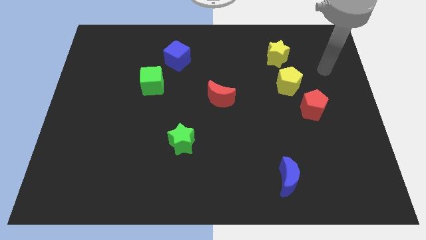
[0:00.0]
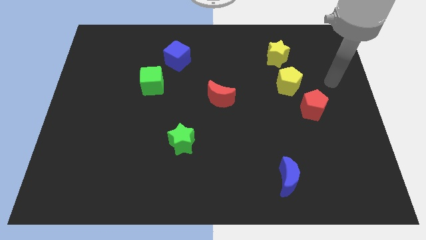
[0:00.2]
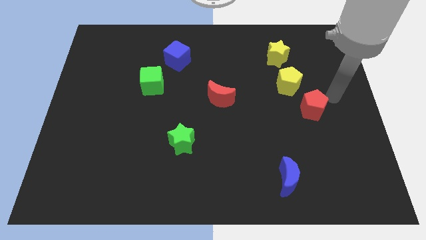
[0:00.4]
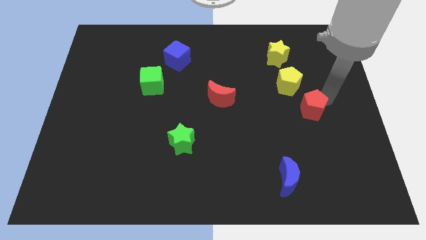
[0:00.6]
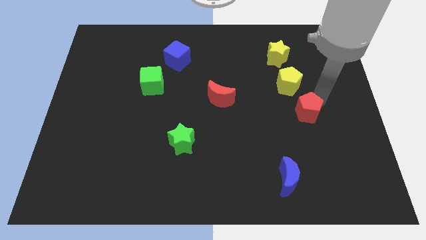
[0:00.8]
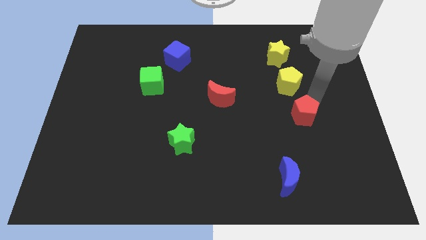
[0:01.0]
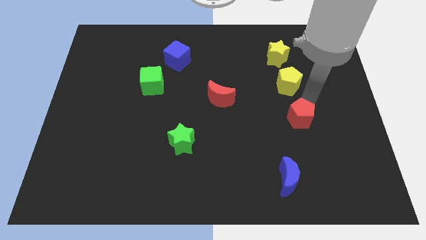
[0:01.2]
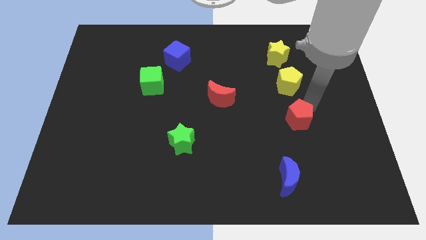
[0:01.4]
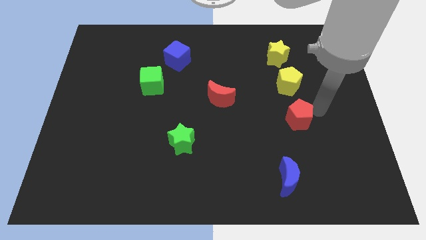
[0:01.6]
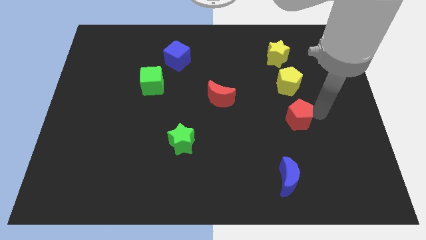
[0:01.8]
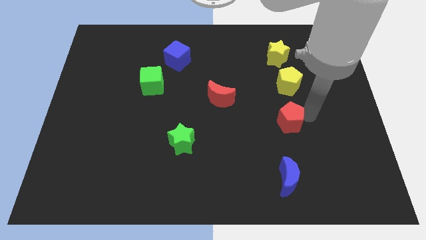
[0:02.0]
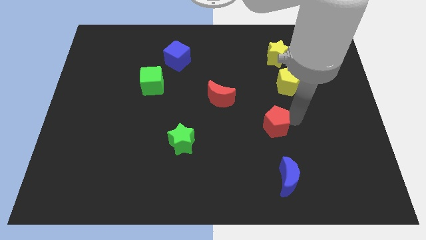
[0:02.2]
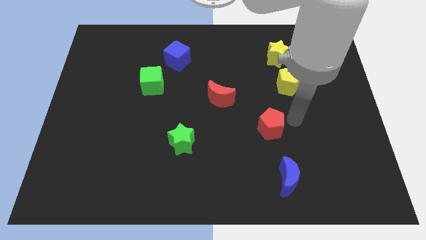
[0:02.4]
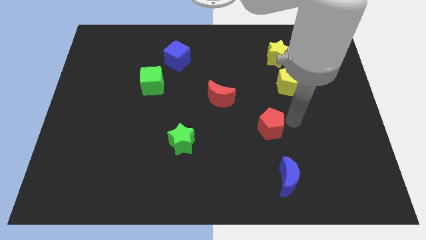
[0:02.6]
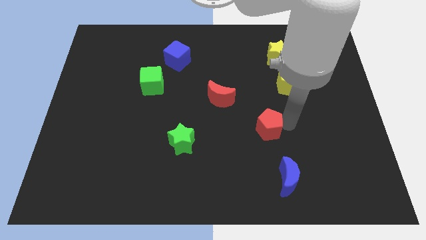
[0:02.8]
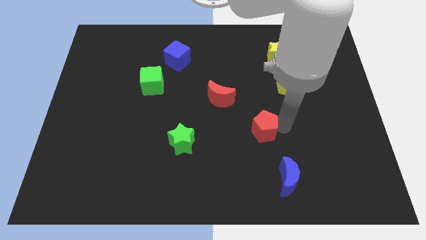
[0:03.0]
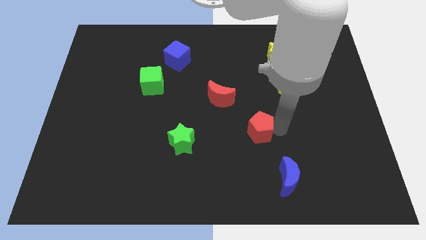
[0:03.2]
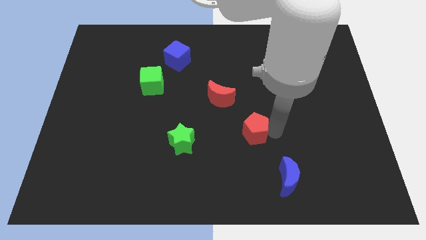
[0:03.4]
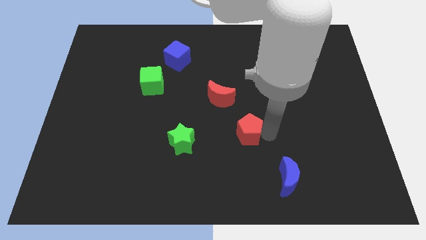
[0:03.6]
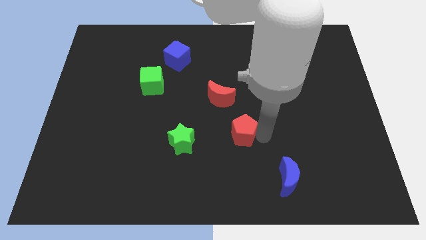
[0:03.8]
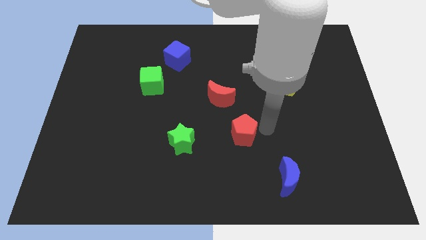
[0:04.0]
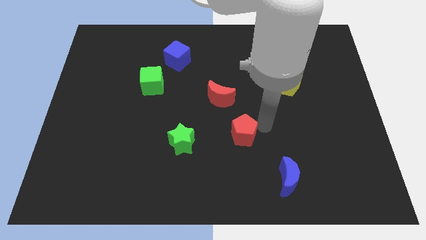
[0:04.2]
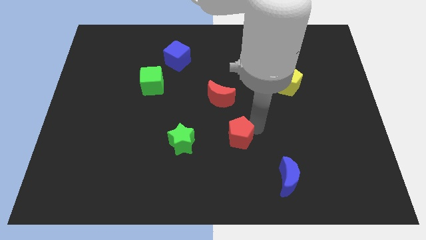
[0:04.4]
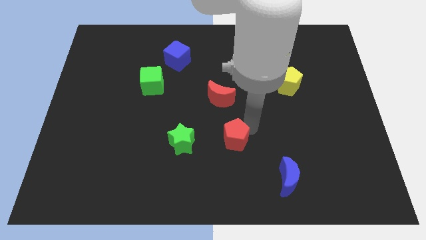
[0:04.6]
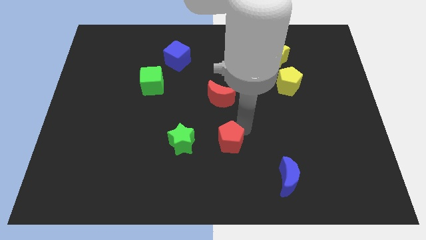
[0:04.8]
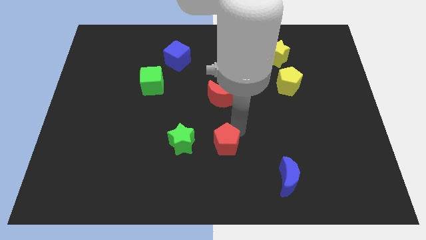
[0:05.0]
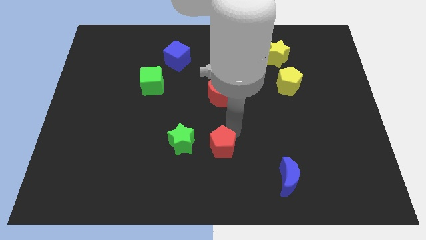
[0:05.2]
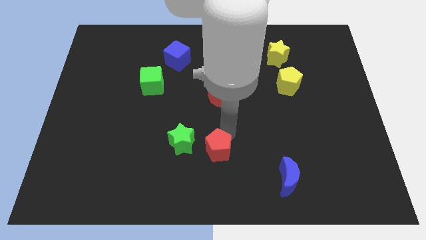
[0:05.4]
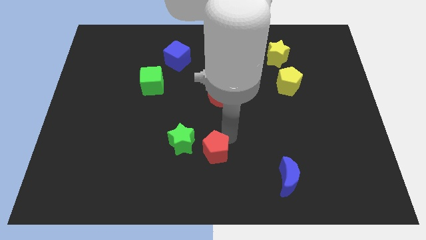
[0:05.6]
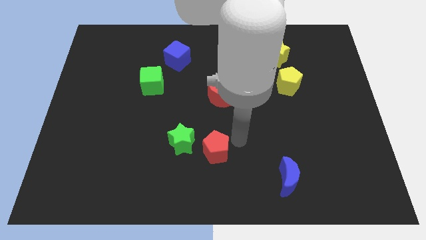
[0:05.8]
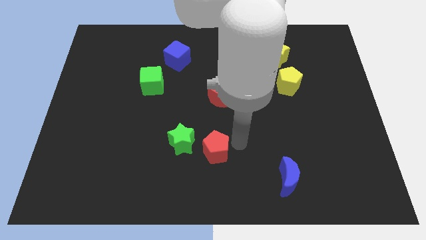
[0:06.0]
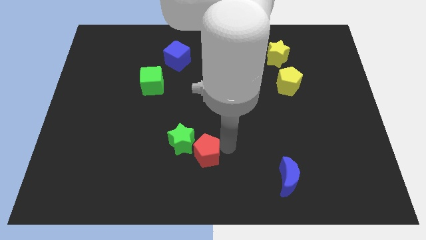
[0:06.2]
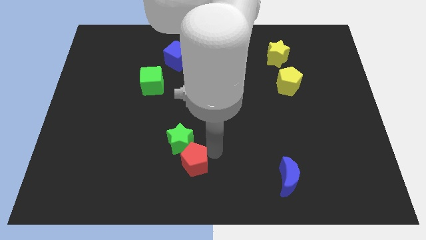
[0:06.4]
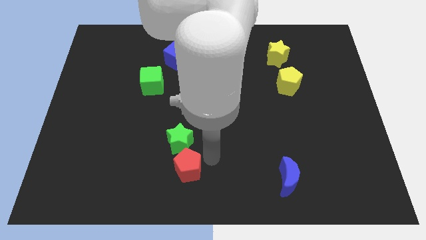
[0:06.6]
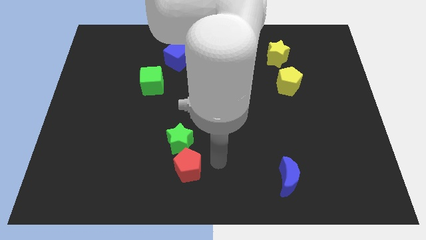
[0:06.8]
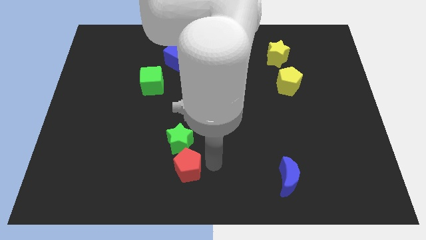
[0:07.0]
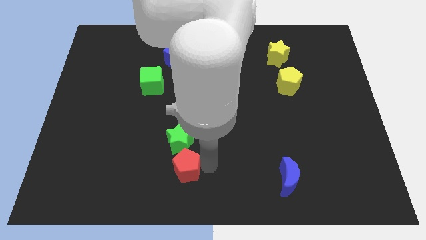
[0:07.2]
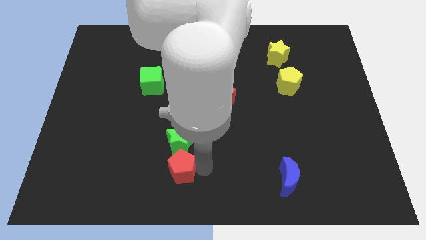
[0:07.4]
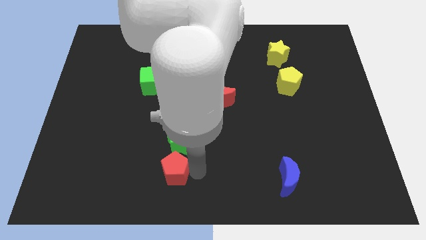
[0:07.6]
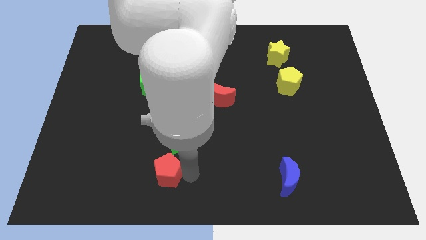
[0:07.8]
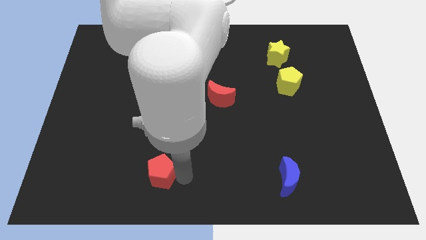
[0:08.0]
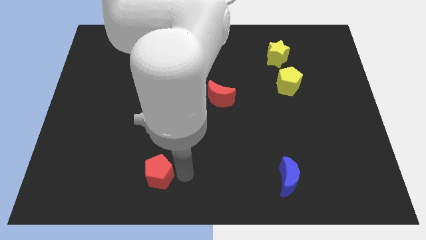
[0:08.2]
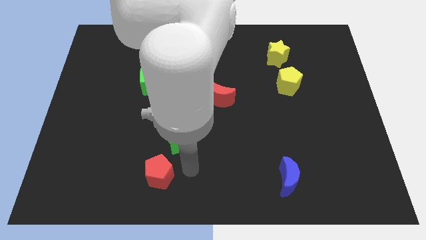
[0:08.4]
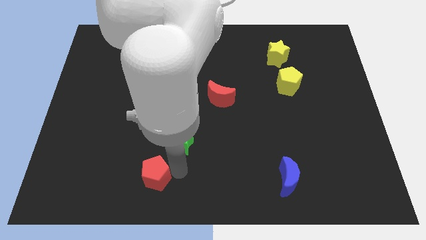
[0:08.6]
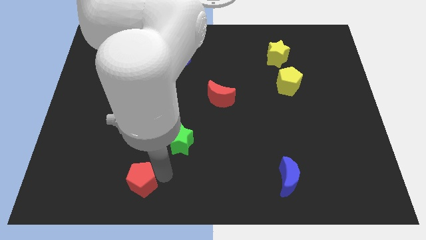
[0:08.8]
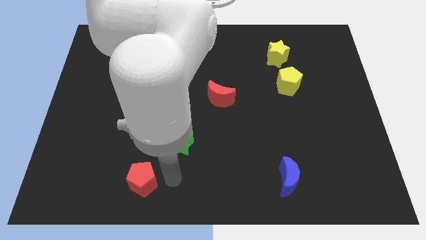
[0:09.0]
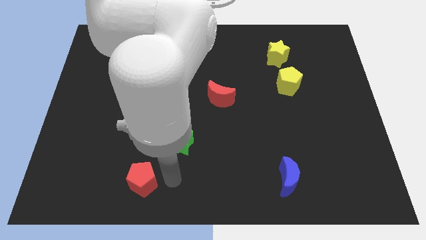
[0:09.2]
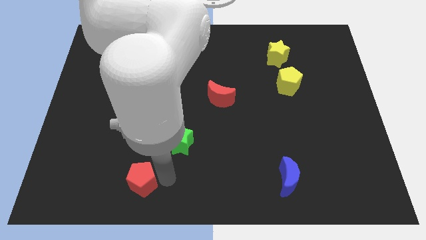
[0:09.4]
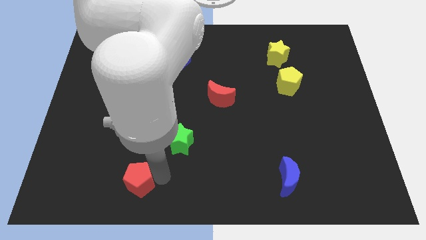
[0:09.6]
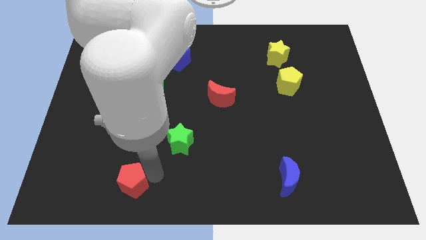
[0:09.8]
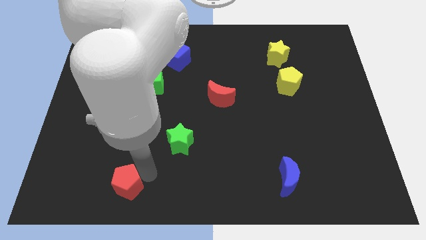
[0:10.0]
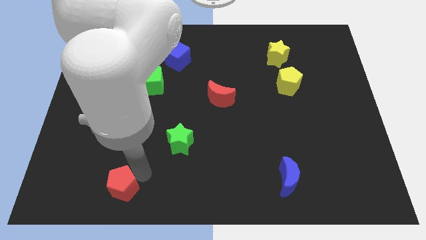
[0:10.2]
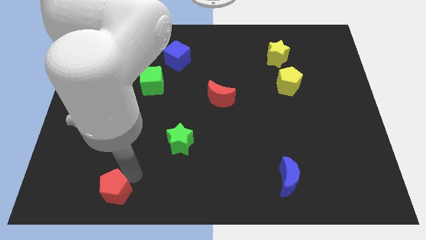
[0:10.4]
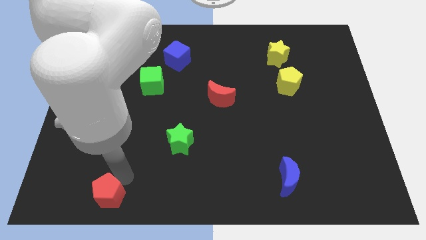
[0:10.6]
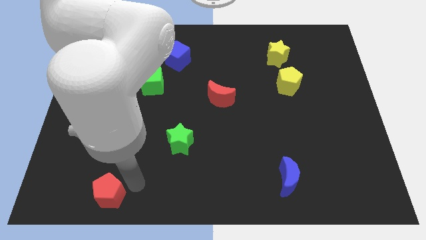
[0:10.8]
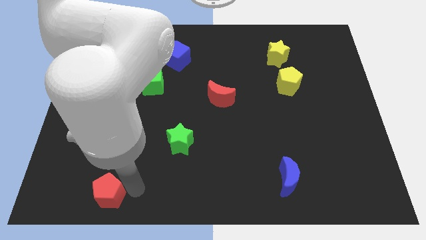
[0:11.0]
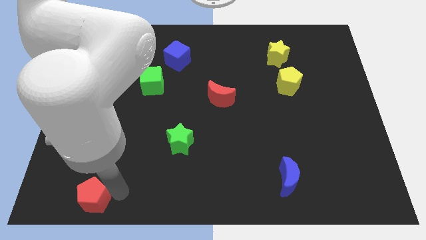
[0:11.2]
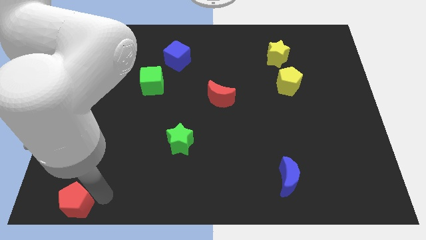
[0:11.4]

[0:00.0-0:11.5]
slide the red pentagon to the lower left corner
